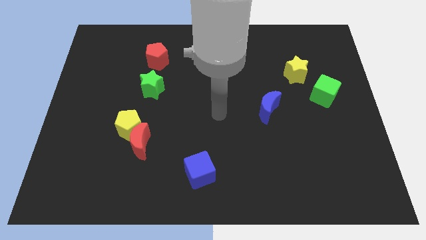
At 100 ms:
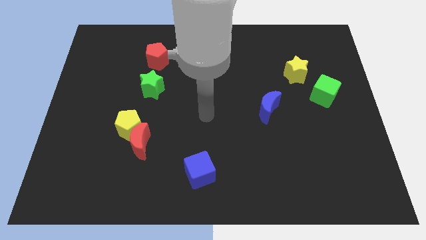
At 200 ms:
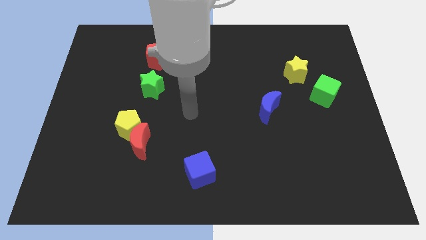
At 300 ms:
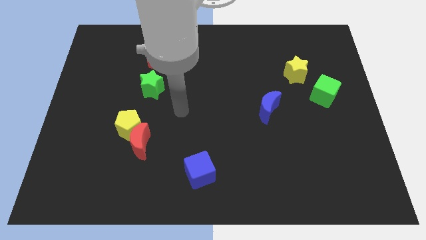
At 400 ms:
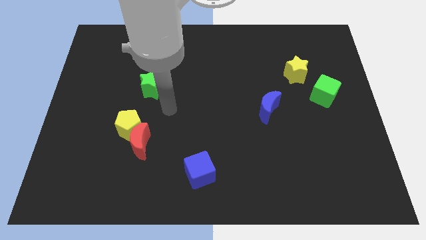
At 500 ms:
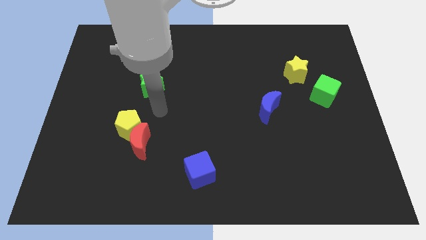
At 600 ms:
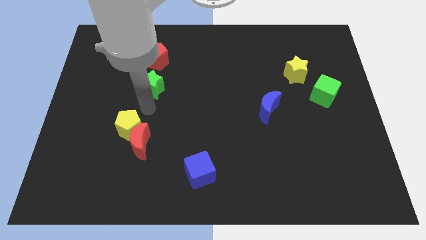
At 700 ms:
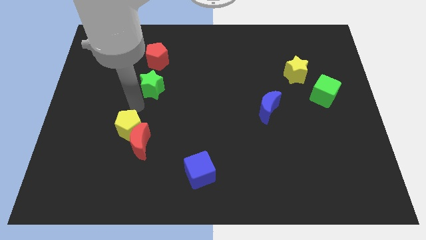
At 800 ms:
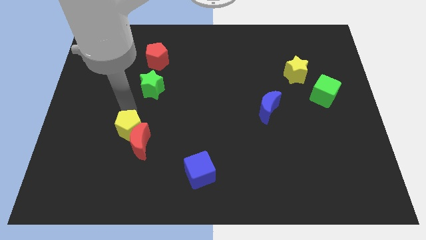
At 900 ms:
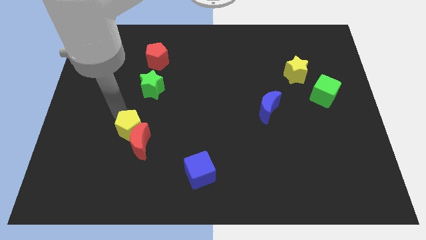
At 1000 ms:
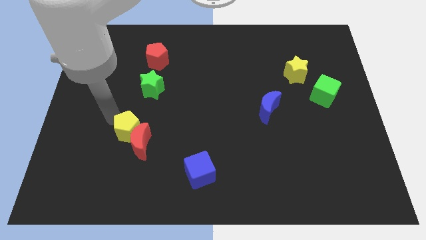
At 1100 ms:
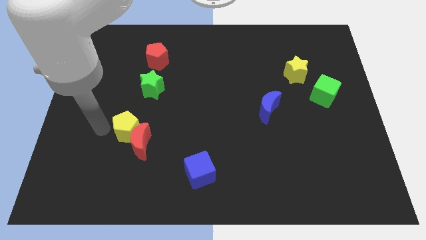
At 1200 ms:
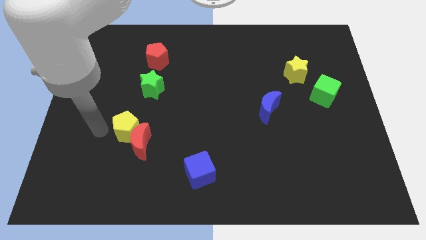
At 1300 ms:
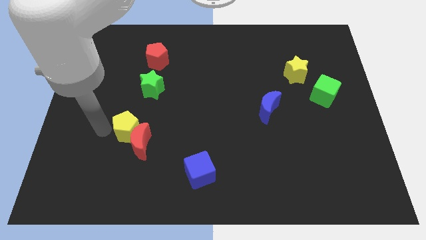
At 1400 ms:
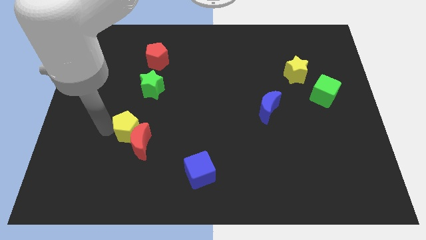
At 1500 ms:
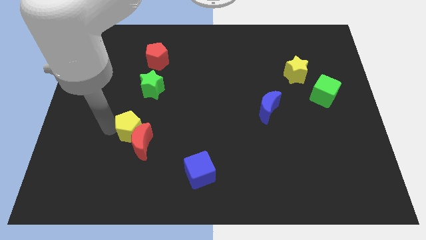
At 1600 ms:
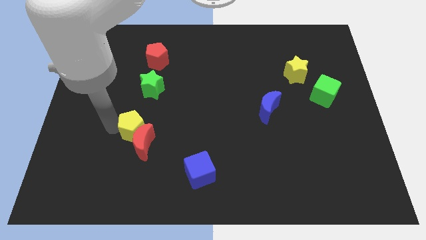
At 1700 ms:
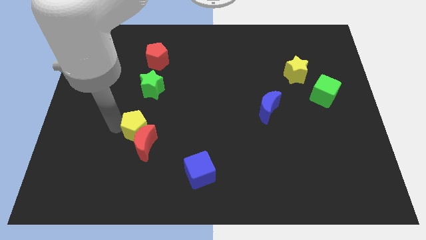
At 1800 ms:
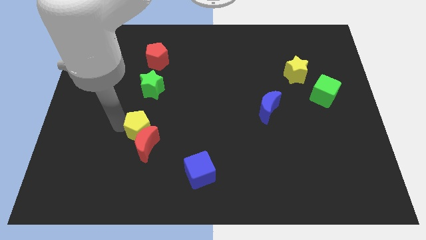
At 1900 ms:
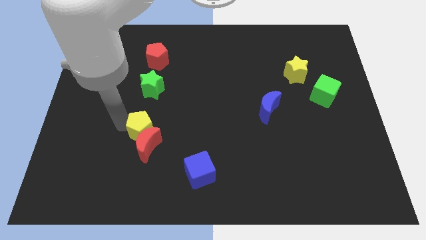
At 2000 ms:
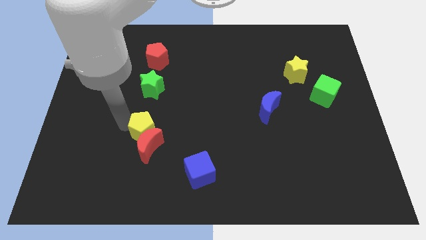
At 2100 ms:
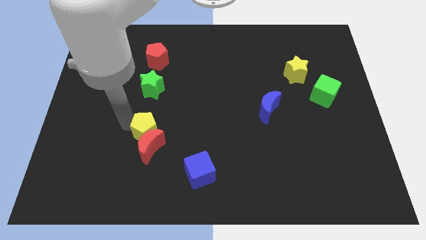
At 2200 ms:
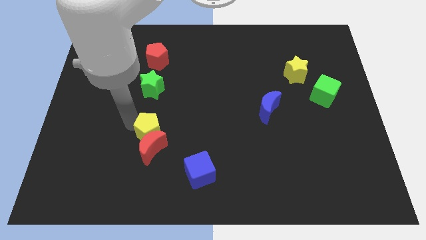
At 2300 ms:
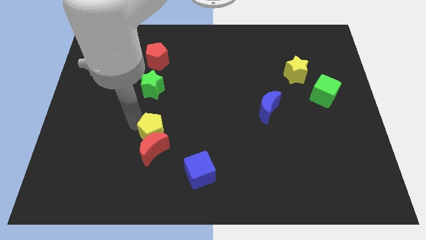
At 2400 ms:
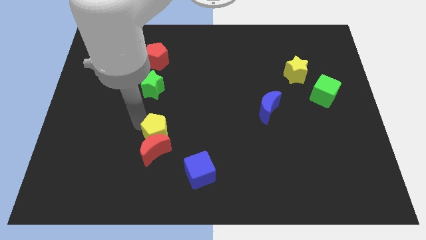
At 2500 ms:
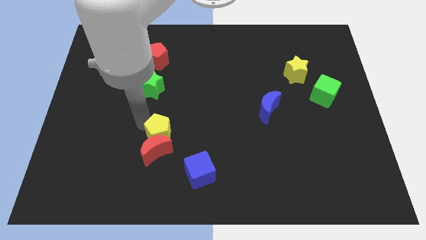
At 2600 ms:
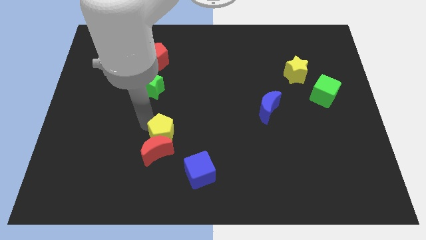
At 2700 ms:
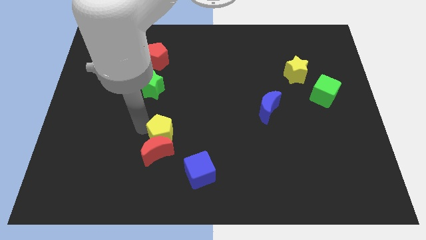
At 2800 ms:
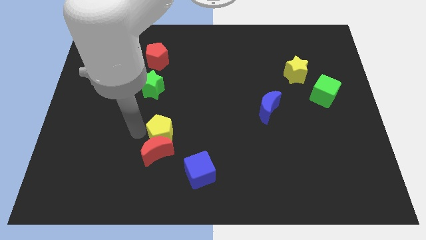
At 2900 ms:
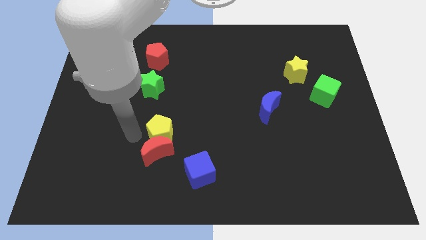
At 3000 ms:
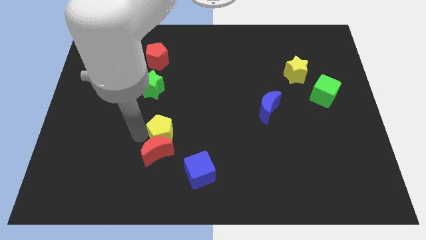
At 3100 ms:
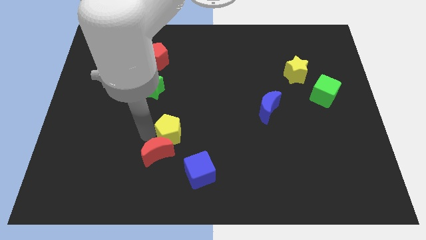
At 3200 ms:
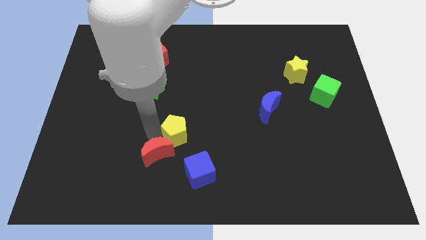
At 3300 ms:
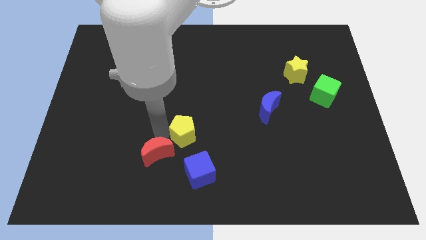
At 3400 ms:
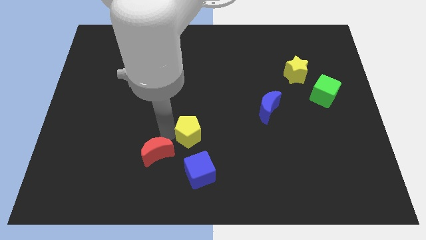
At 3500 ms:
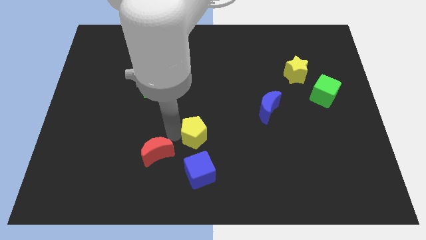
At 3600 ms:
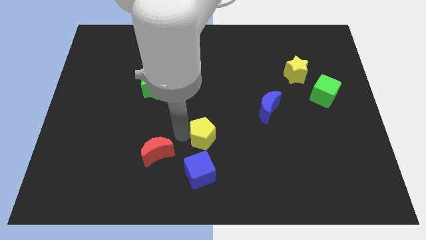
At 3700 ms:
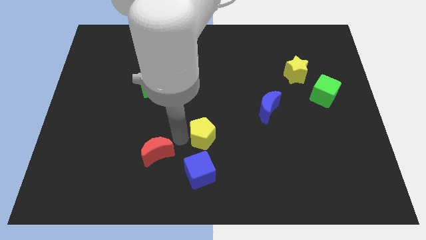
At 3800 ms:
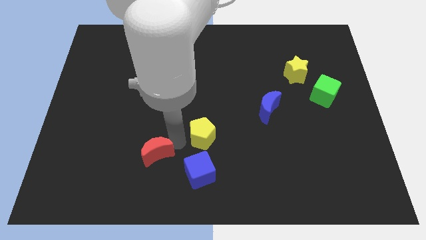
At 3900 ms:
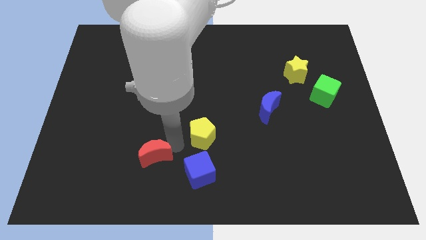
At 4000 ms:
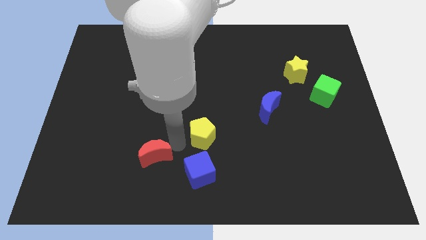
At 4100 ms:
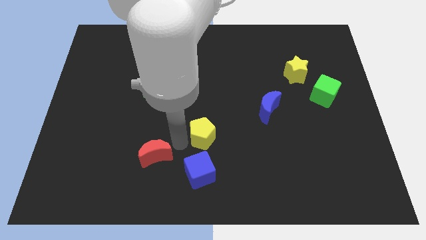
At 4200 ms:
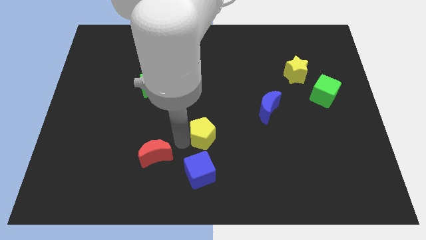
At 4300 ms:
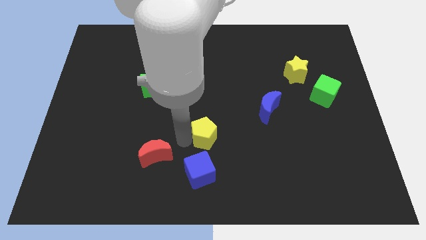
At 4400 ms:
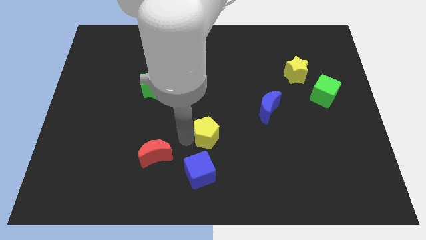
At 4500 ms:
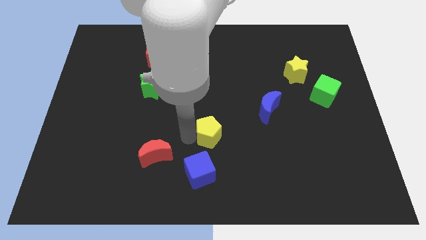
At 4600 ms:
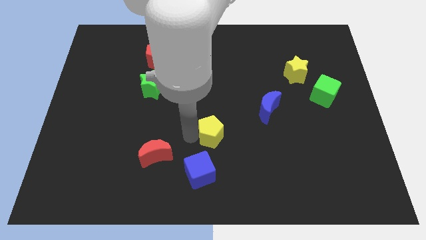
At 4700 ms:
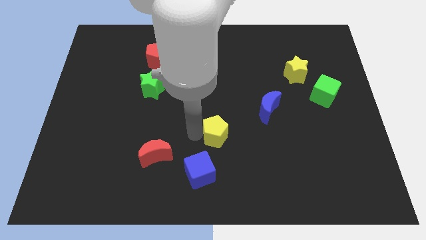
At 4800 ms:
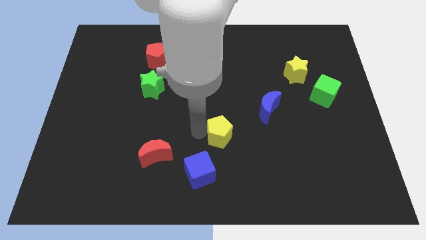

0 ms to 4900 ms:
move the yellow pentagon to the right

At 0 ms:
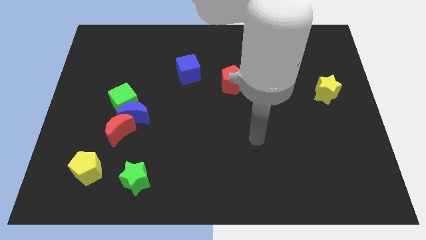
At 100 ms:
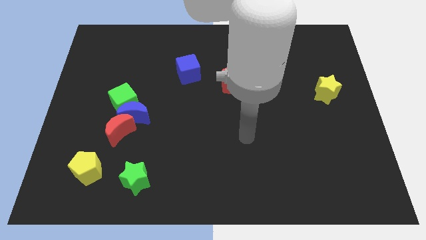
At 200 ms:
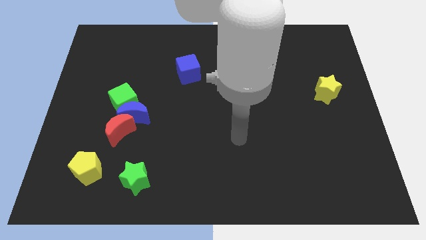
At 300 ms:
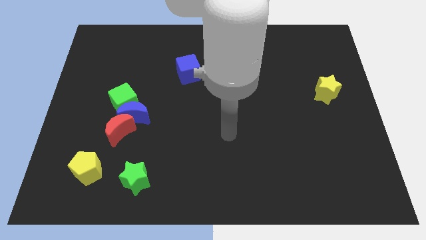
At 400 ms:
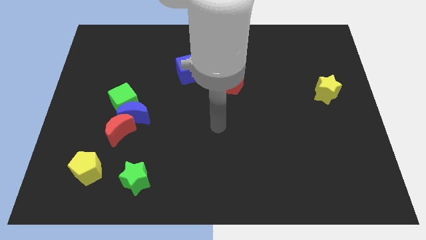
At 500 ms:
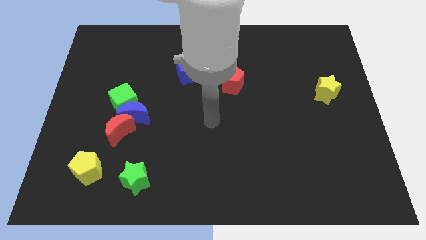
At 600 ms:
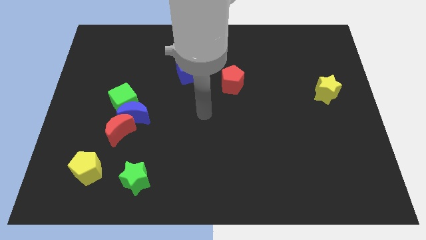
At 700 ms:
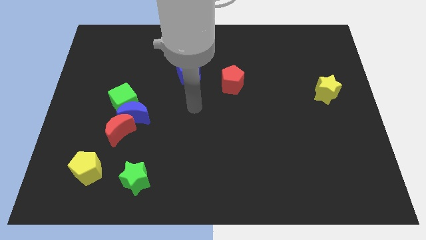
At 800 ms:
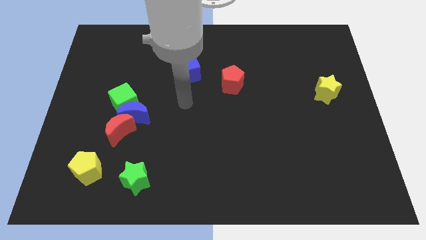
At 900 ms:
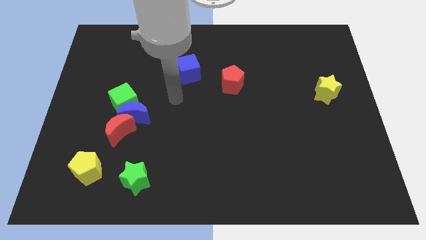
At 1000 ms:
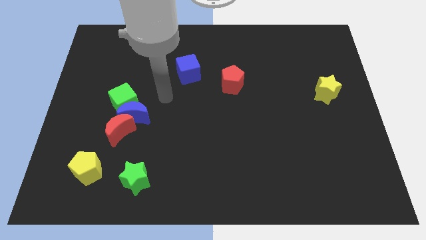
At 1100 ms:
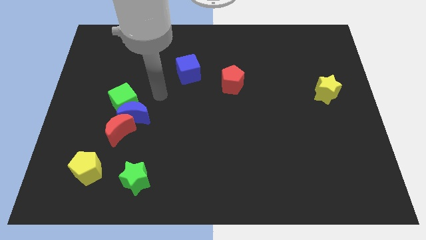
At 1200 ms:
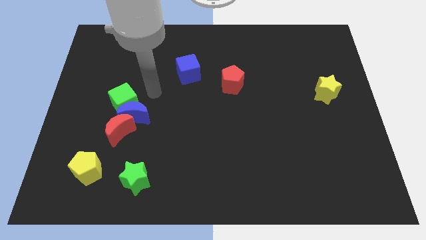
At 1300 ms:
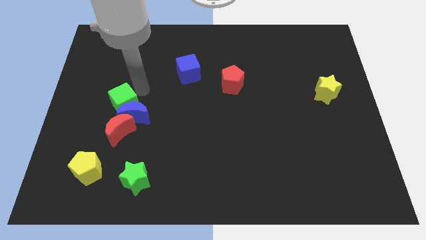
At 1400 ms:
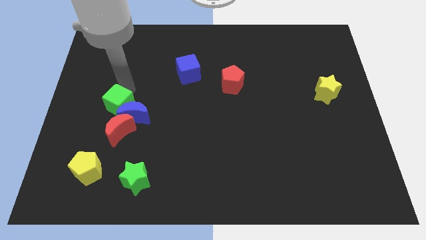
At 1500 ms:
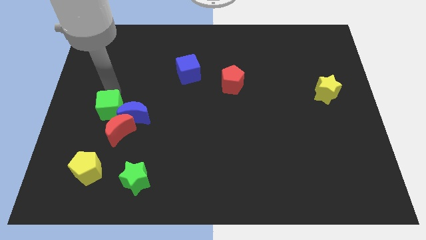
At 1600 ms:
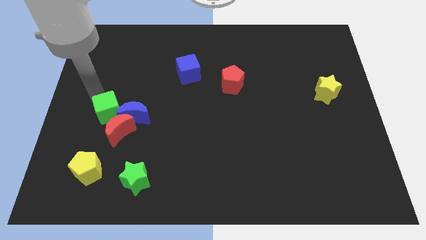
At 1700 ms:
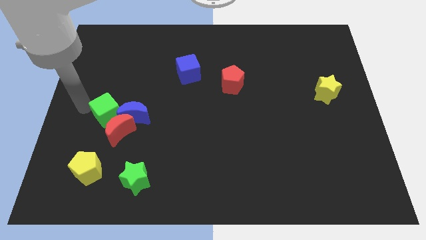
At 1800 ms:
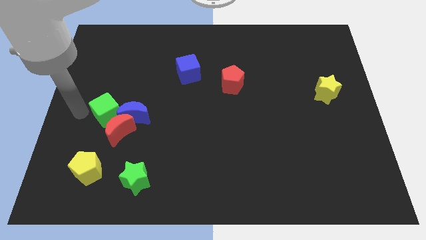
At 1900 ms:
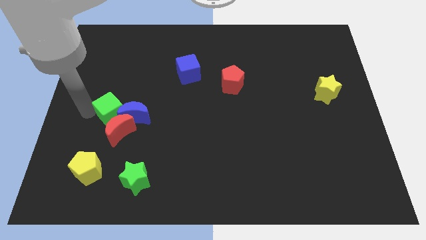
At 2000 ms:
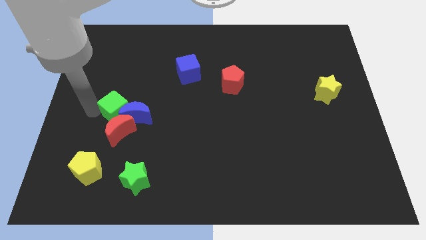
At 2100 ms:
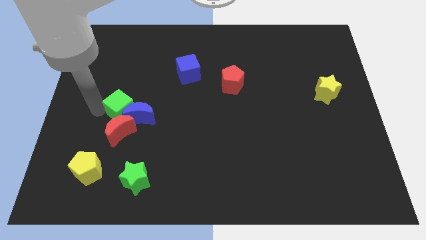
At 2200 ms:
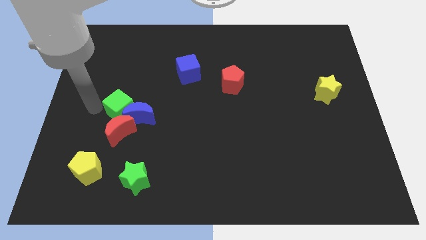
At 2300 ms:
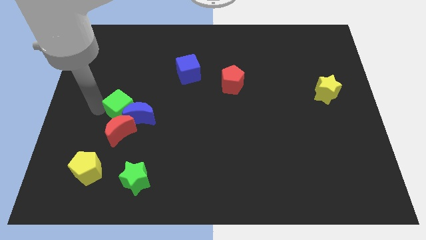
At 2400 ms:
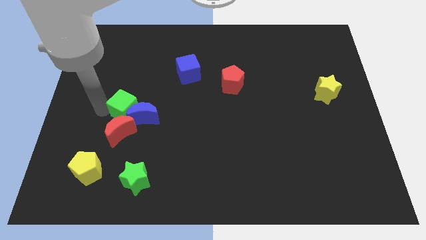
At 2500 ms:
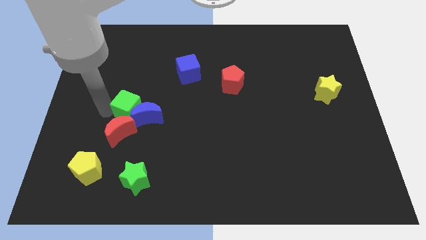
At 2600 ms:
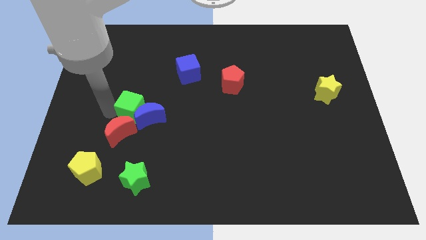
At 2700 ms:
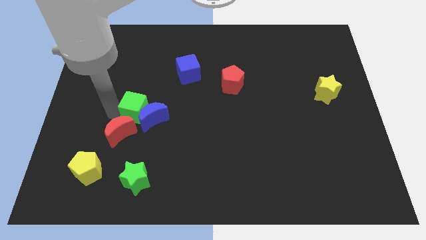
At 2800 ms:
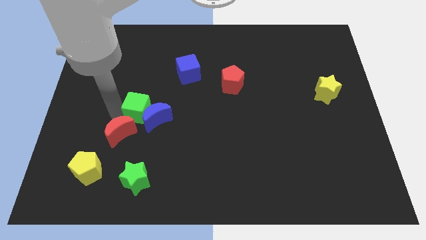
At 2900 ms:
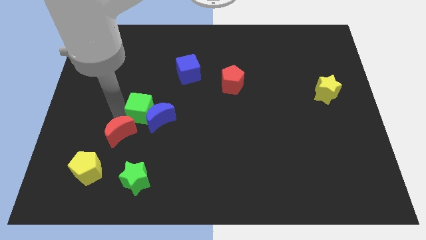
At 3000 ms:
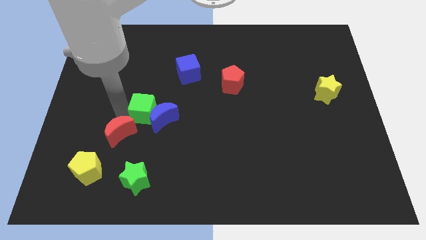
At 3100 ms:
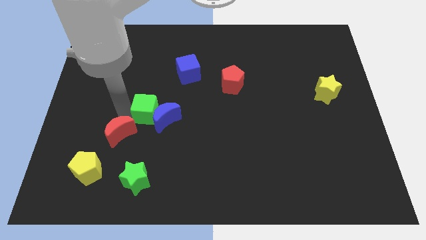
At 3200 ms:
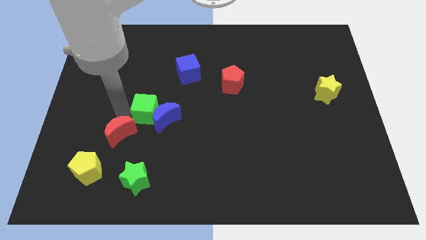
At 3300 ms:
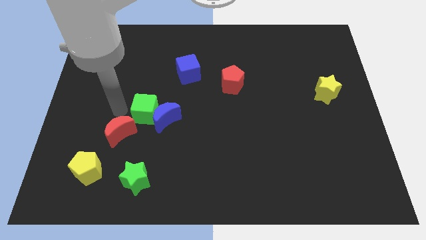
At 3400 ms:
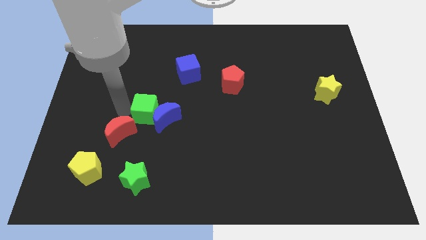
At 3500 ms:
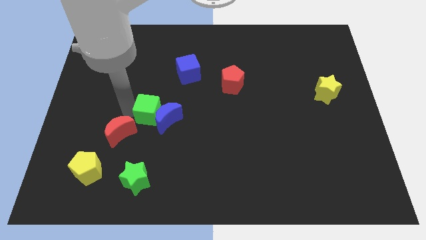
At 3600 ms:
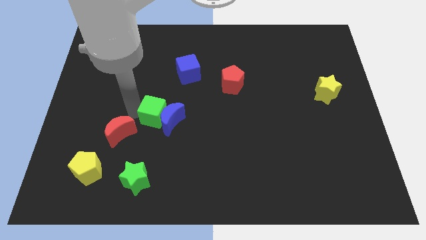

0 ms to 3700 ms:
move the green cube diagonally down and to the right slightly
